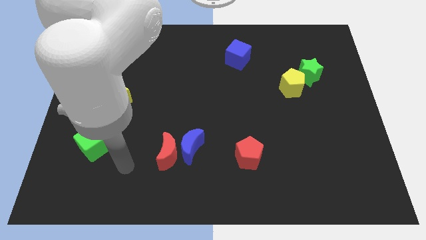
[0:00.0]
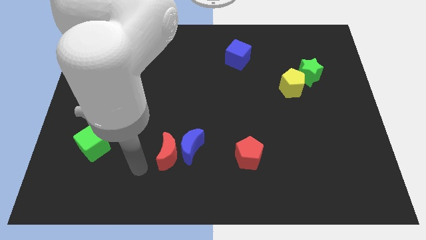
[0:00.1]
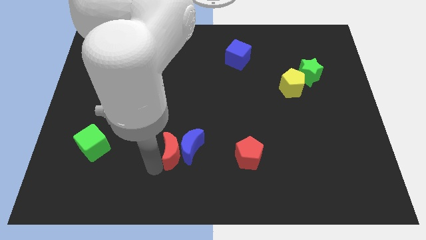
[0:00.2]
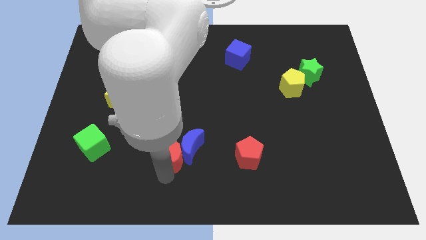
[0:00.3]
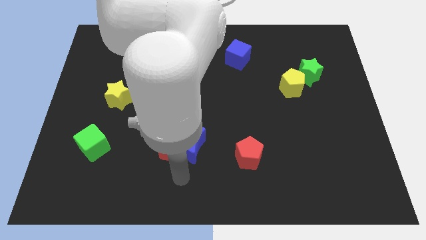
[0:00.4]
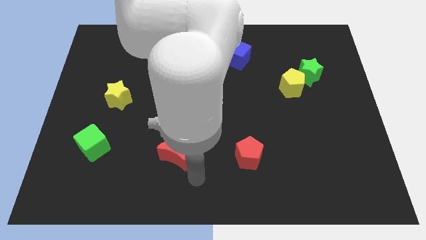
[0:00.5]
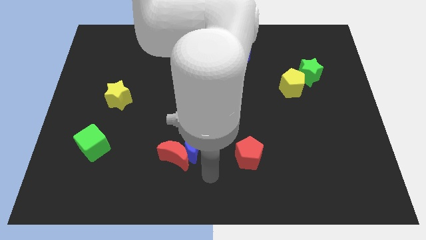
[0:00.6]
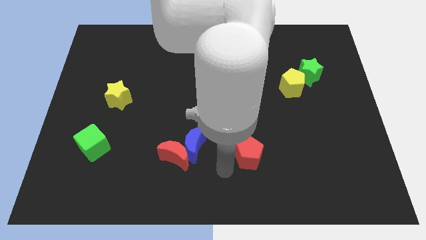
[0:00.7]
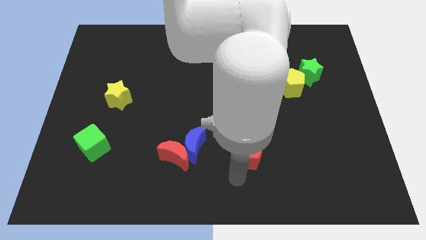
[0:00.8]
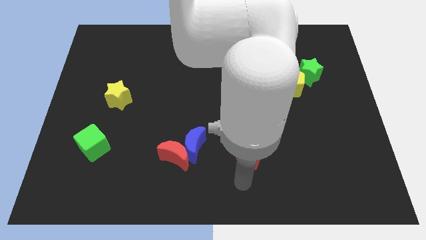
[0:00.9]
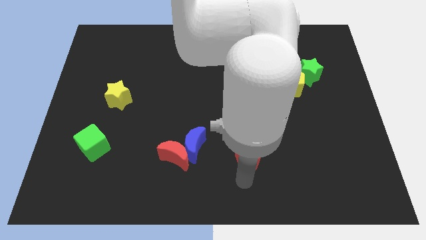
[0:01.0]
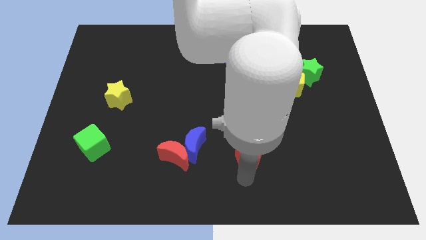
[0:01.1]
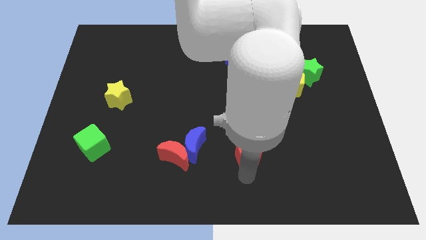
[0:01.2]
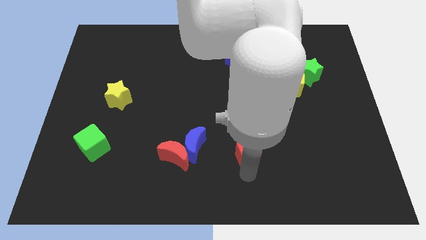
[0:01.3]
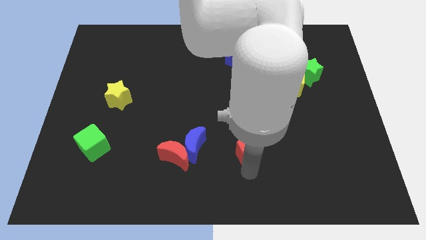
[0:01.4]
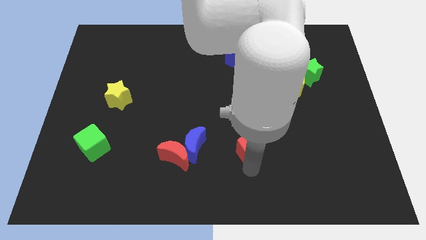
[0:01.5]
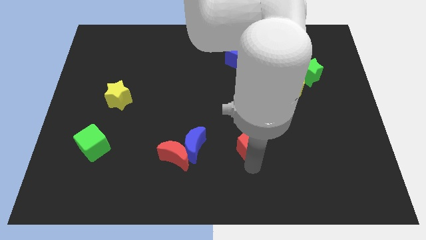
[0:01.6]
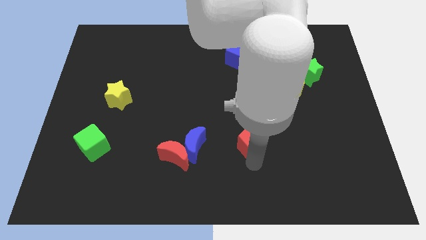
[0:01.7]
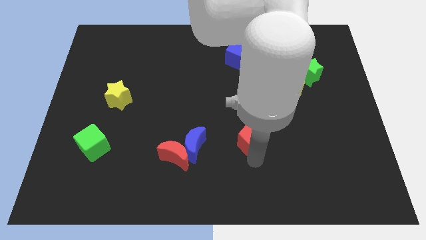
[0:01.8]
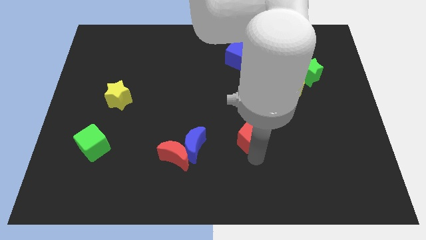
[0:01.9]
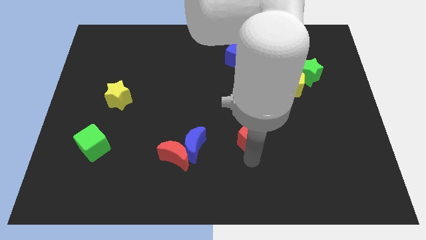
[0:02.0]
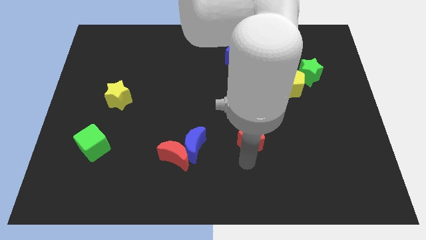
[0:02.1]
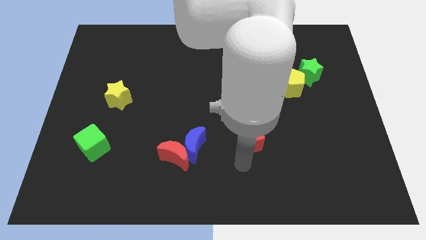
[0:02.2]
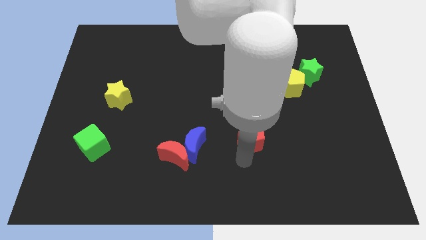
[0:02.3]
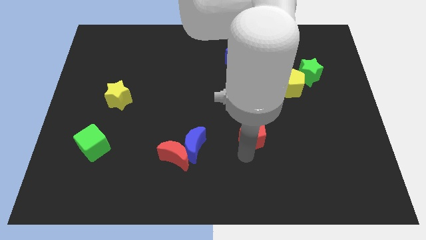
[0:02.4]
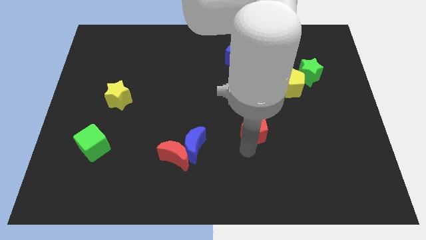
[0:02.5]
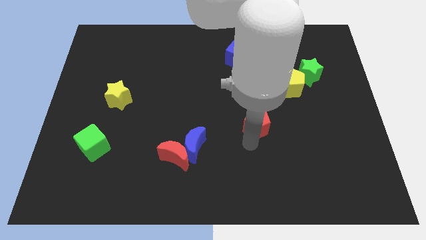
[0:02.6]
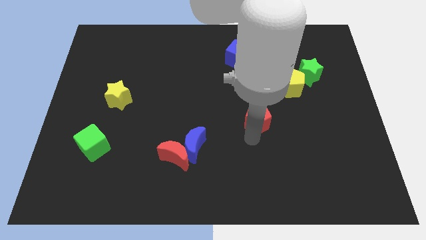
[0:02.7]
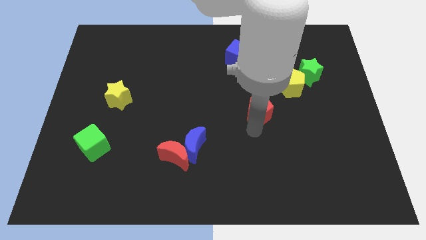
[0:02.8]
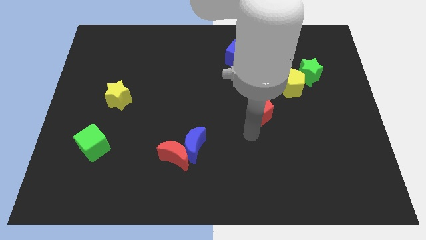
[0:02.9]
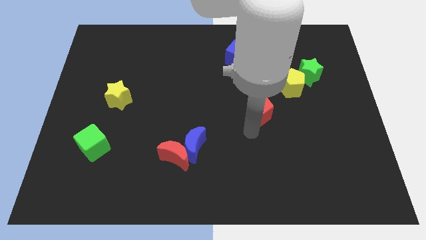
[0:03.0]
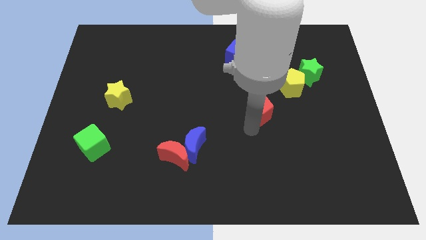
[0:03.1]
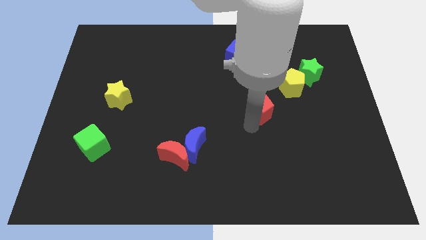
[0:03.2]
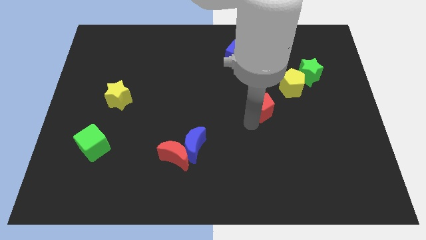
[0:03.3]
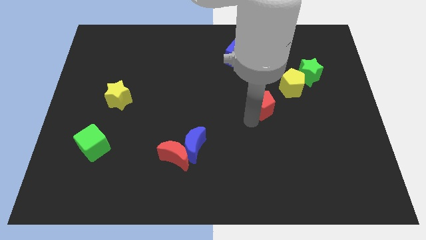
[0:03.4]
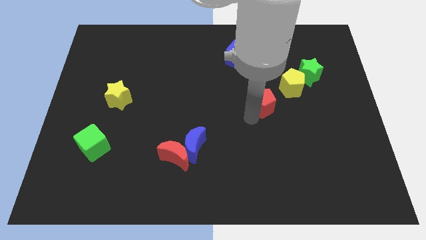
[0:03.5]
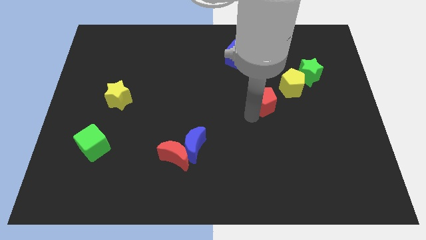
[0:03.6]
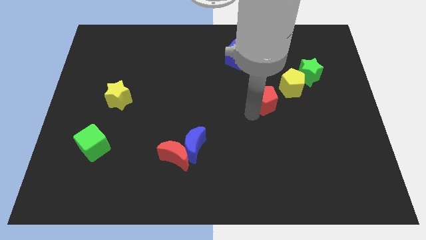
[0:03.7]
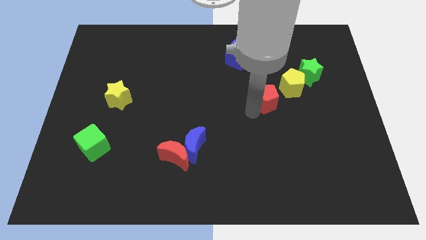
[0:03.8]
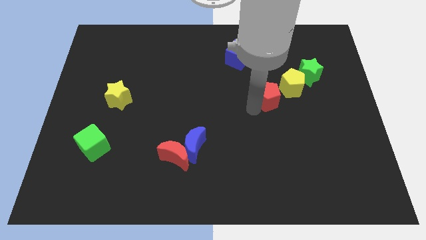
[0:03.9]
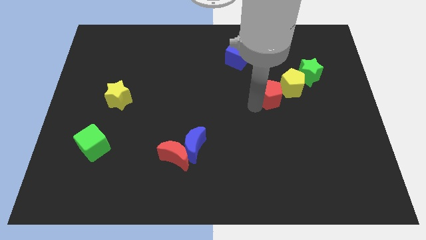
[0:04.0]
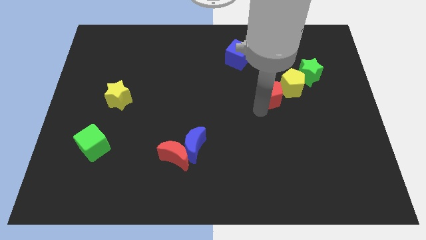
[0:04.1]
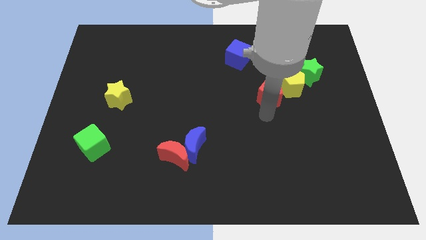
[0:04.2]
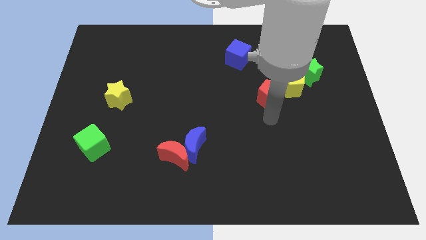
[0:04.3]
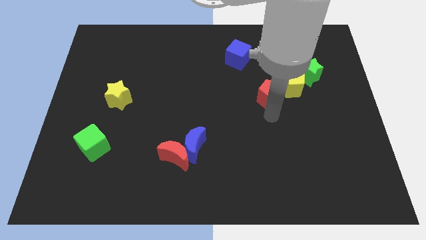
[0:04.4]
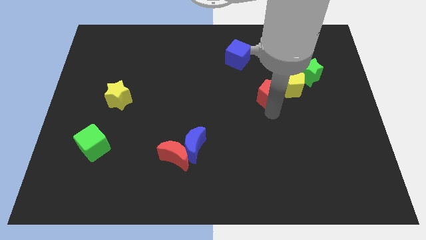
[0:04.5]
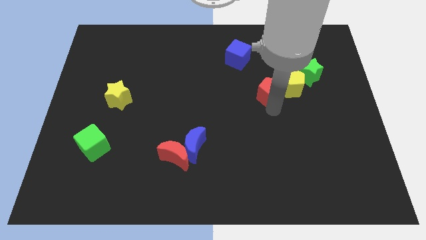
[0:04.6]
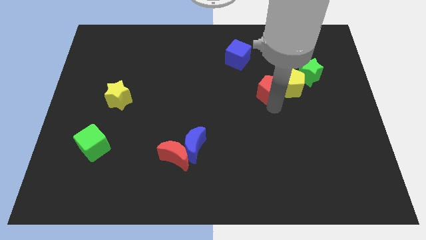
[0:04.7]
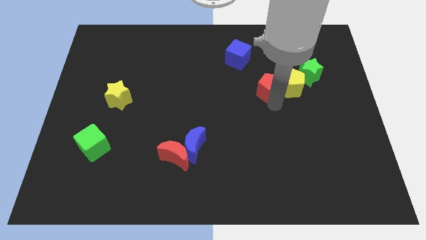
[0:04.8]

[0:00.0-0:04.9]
slide the red pentagon diagonally up and to the left of the yellow pentagon

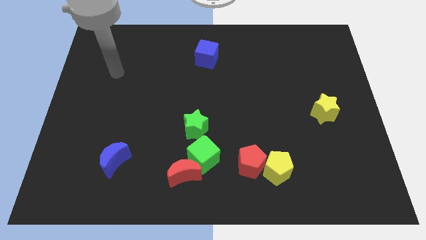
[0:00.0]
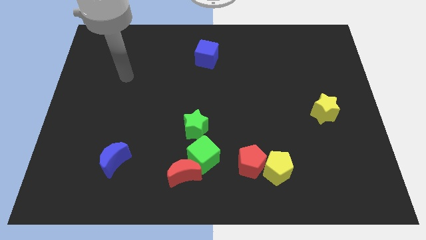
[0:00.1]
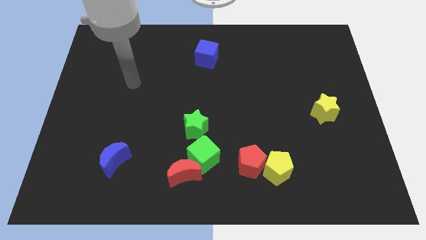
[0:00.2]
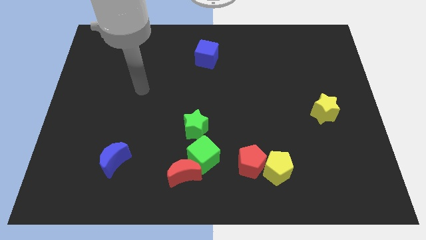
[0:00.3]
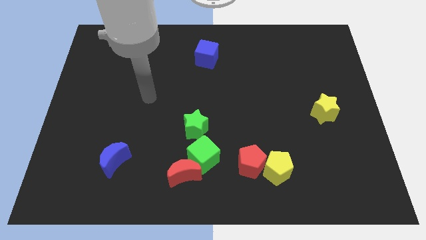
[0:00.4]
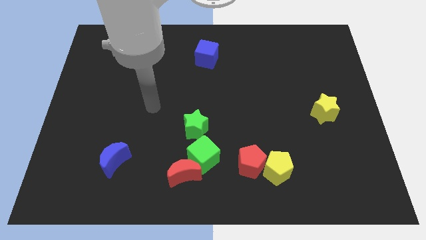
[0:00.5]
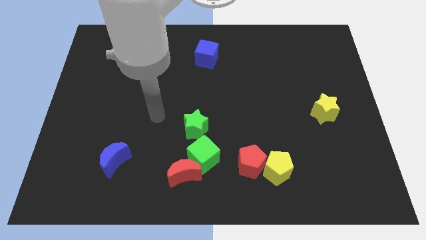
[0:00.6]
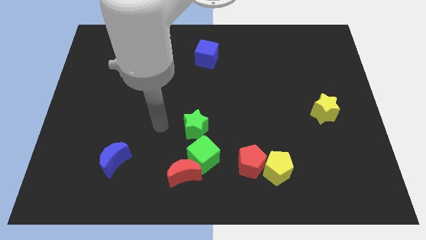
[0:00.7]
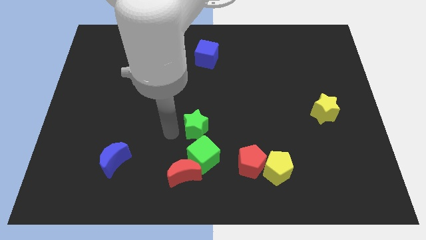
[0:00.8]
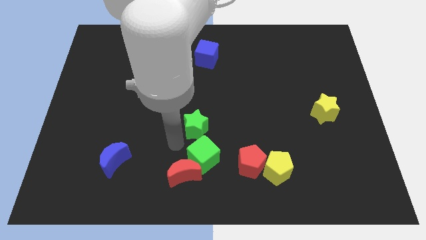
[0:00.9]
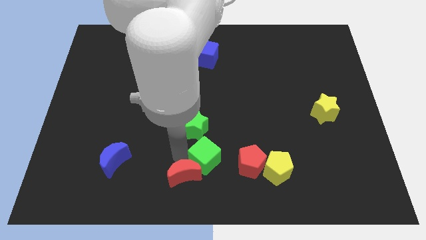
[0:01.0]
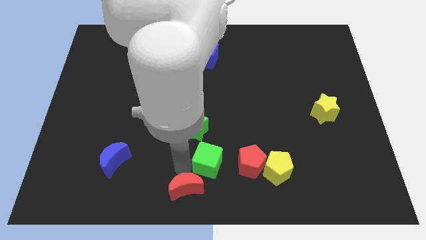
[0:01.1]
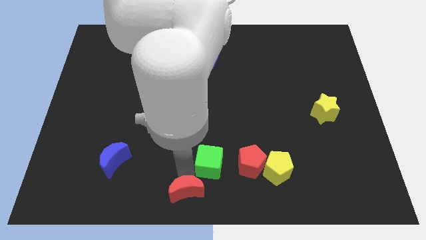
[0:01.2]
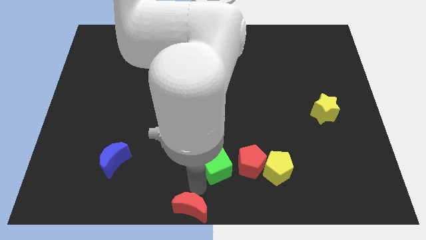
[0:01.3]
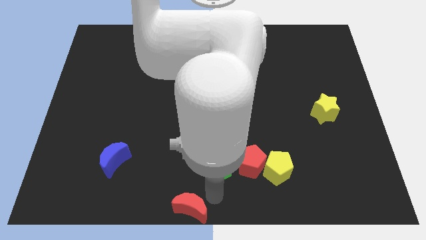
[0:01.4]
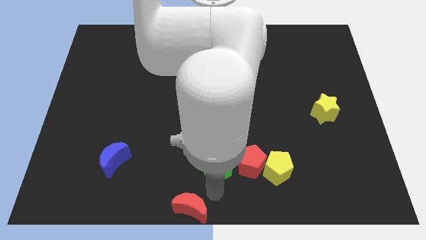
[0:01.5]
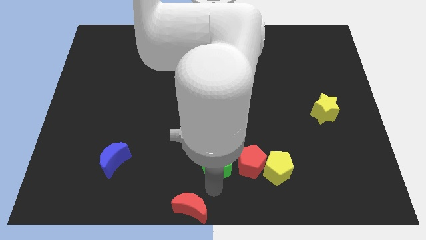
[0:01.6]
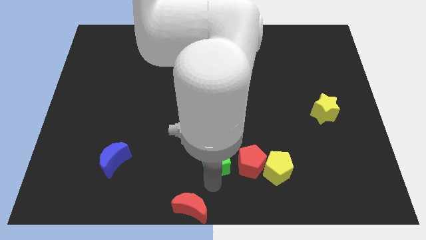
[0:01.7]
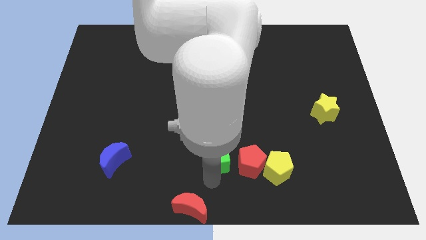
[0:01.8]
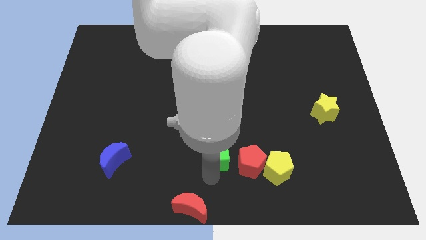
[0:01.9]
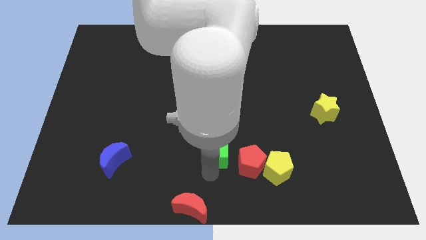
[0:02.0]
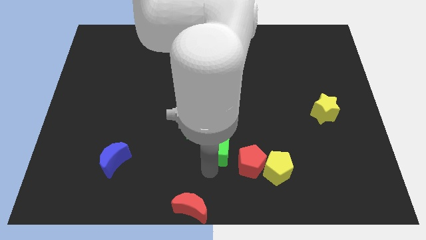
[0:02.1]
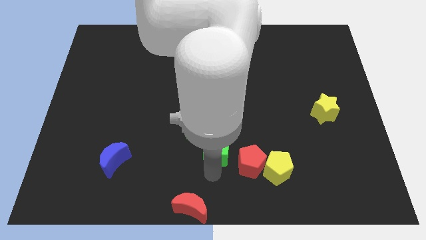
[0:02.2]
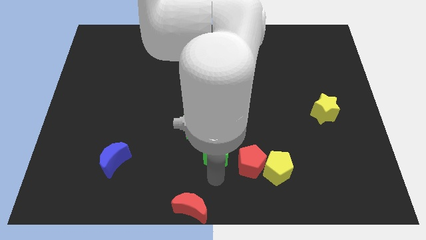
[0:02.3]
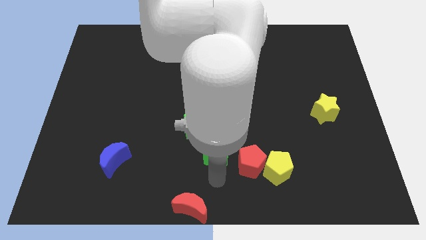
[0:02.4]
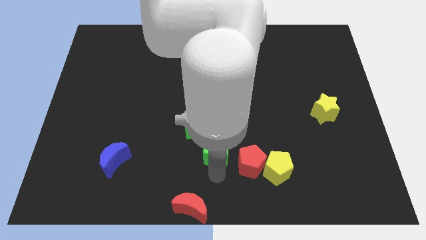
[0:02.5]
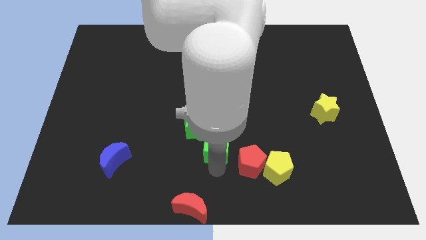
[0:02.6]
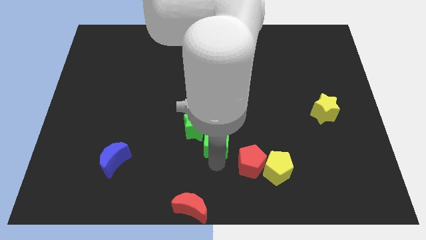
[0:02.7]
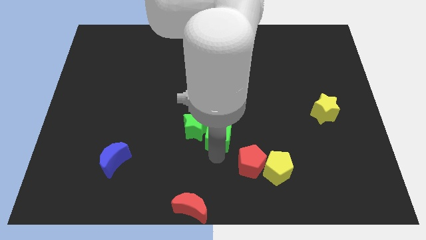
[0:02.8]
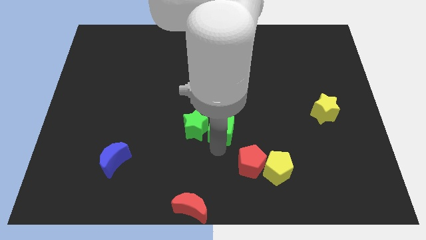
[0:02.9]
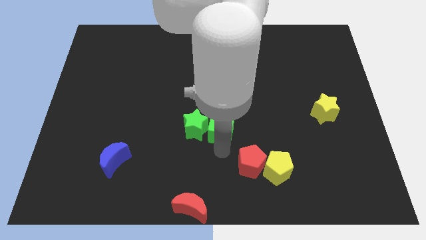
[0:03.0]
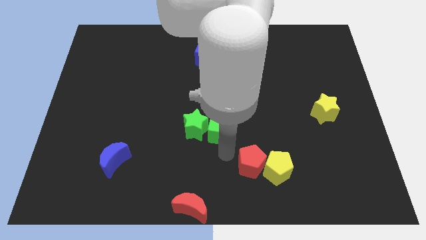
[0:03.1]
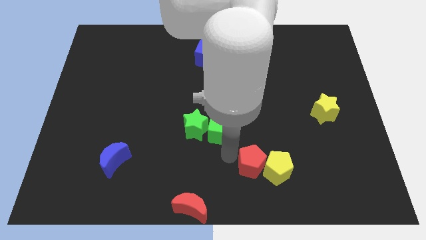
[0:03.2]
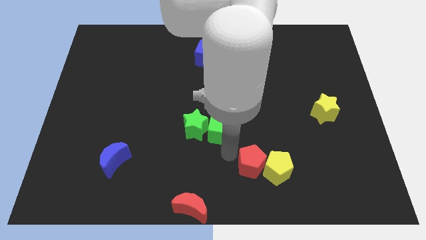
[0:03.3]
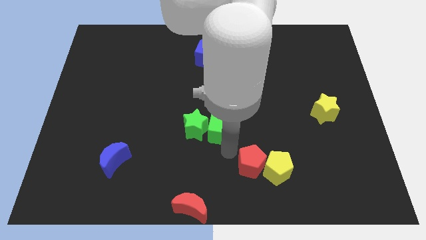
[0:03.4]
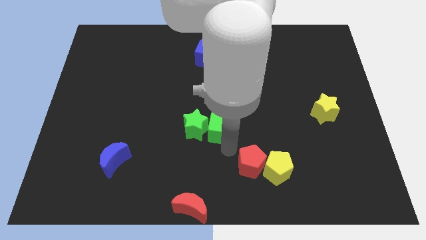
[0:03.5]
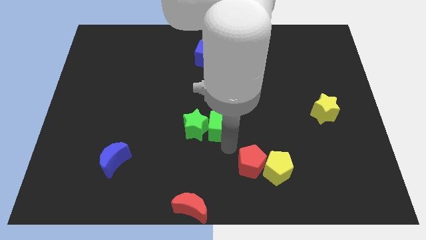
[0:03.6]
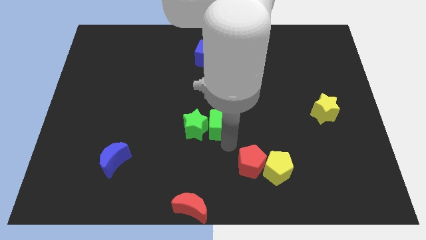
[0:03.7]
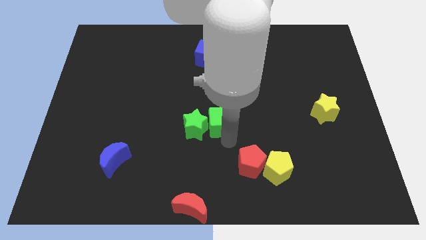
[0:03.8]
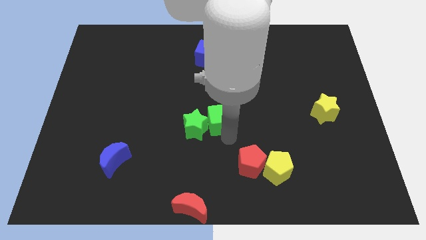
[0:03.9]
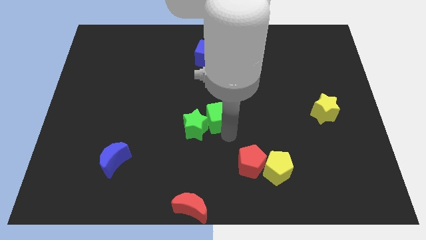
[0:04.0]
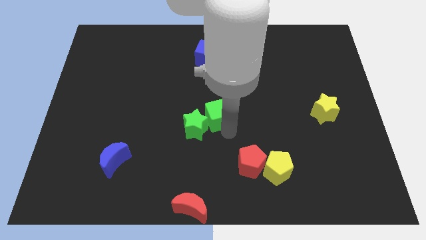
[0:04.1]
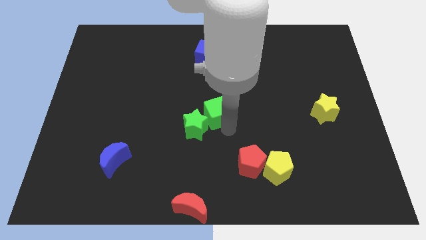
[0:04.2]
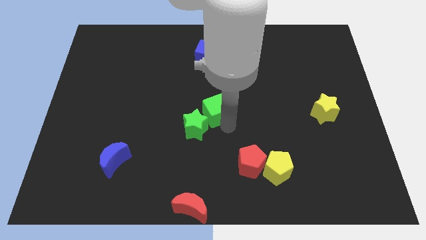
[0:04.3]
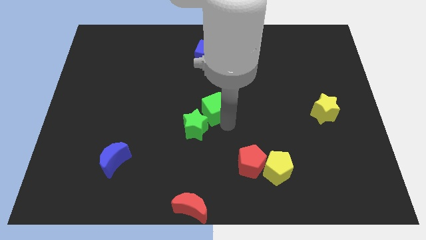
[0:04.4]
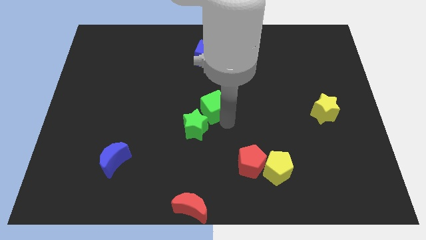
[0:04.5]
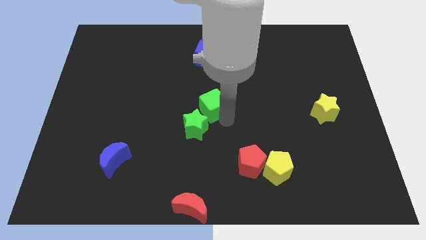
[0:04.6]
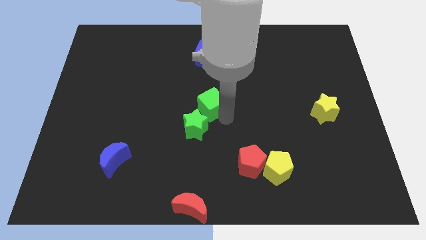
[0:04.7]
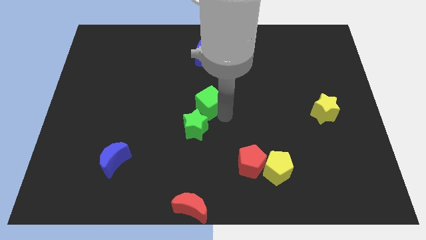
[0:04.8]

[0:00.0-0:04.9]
move the green cube to the bottom side of the blue cube
